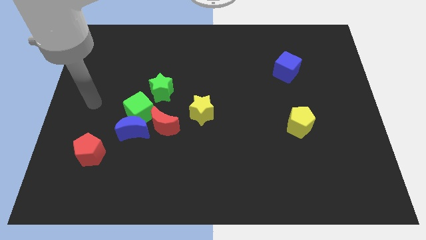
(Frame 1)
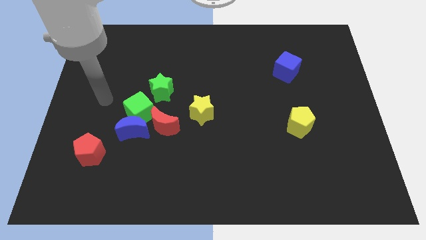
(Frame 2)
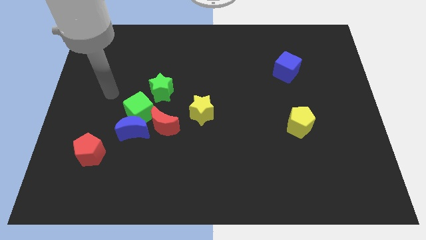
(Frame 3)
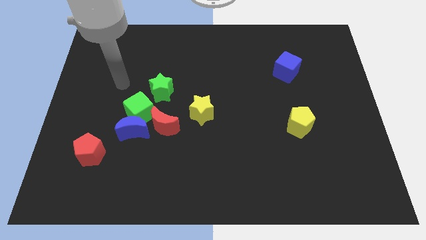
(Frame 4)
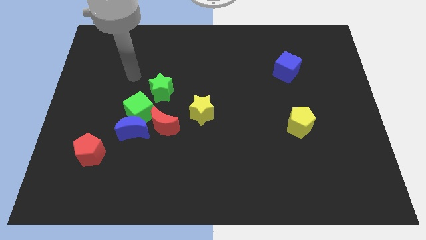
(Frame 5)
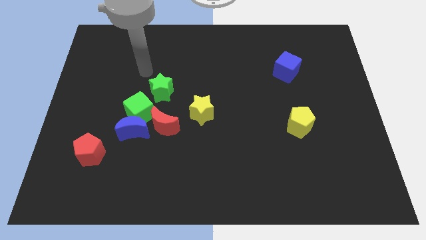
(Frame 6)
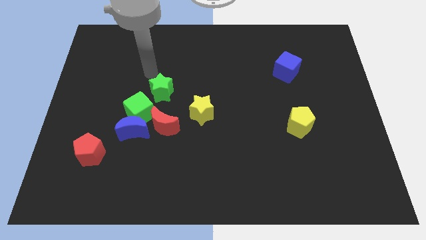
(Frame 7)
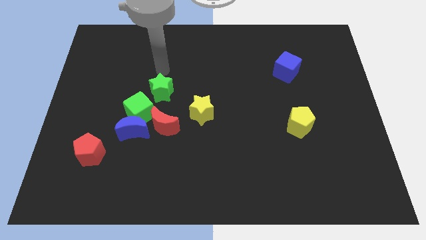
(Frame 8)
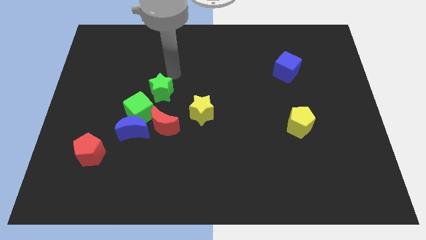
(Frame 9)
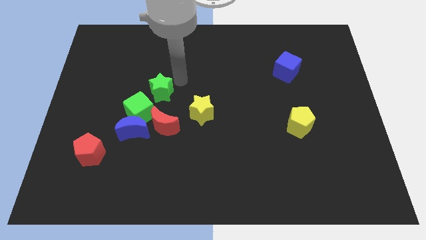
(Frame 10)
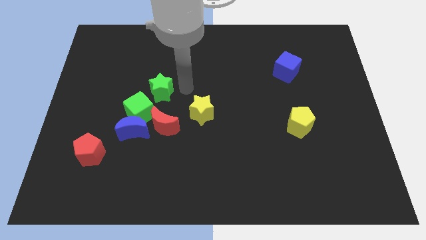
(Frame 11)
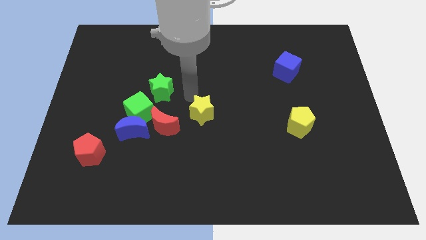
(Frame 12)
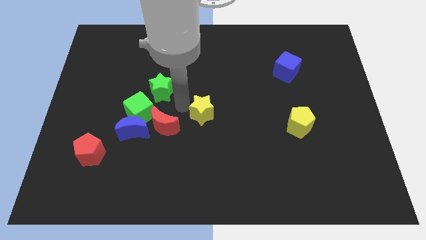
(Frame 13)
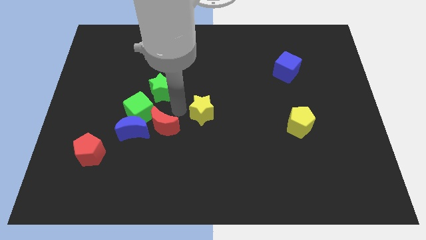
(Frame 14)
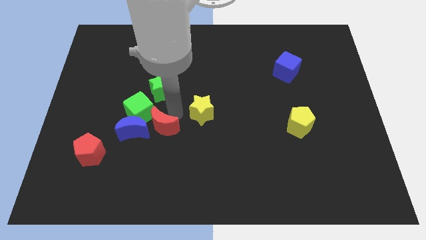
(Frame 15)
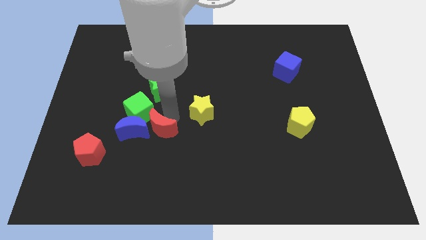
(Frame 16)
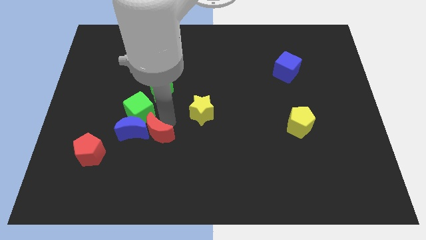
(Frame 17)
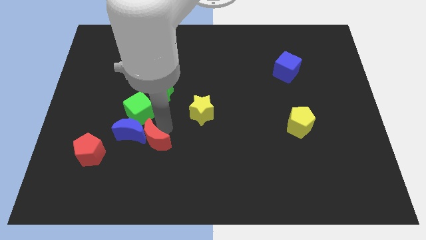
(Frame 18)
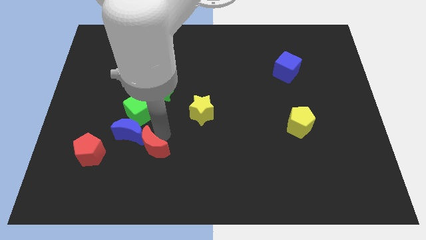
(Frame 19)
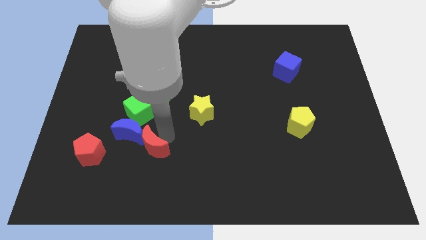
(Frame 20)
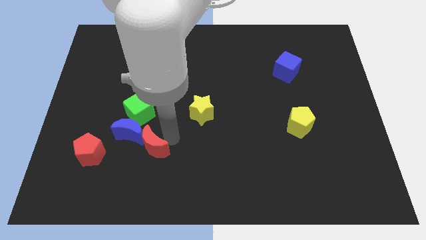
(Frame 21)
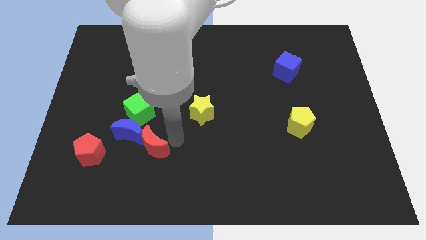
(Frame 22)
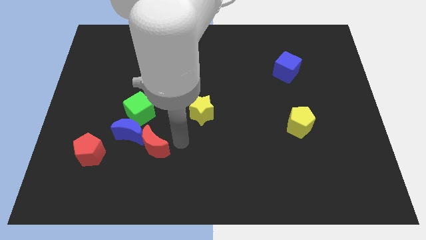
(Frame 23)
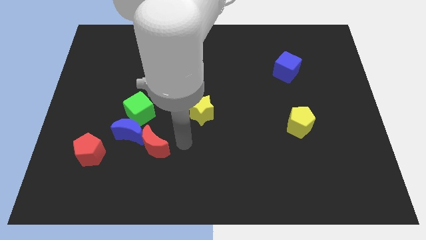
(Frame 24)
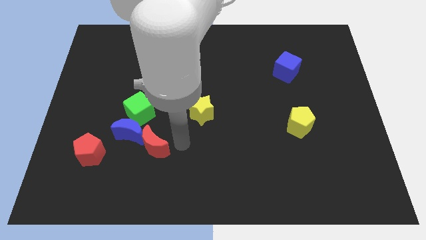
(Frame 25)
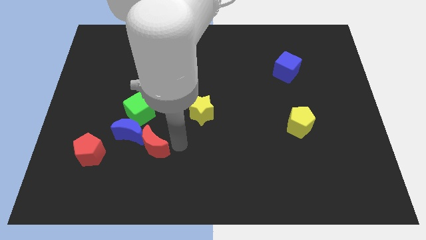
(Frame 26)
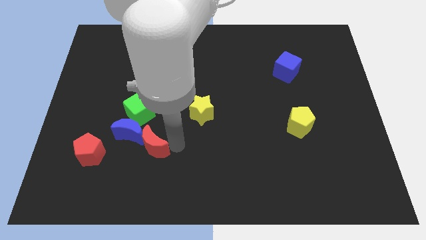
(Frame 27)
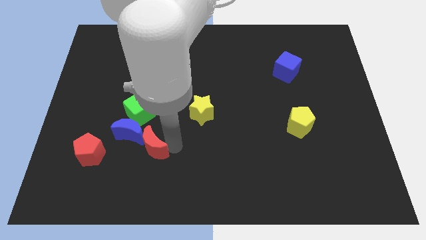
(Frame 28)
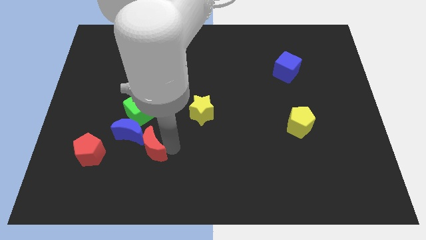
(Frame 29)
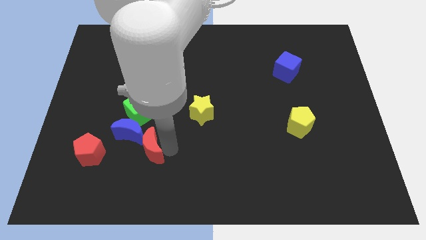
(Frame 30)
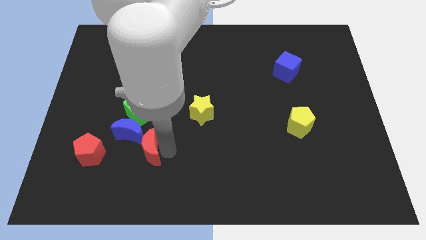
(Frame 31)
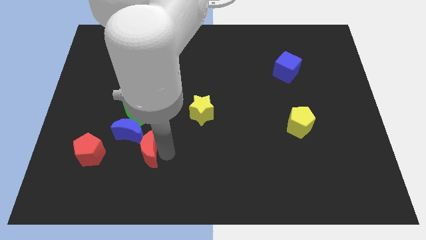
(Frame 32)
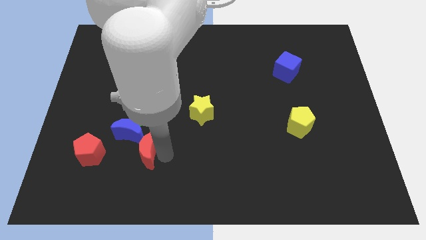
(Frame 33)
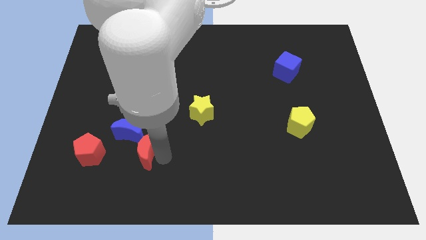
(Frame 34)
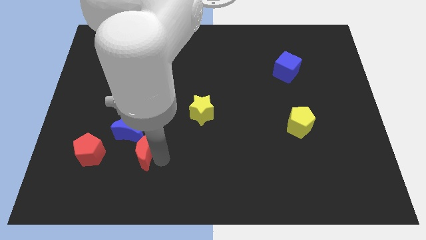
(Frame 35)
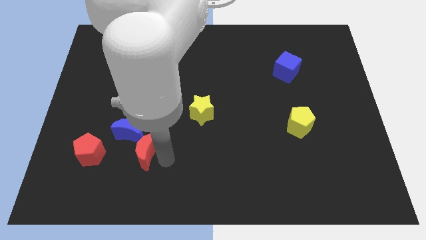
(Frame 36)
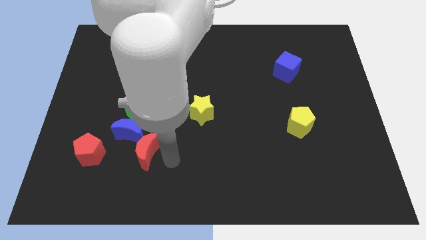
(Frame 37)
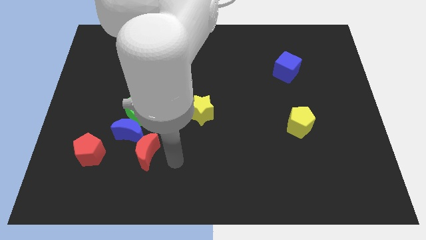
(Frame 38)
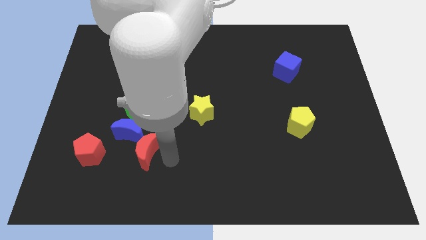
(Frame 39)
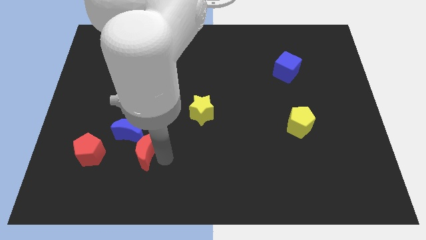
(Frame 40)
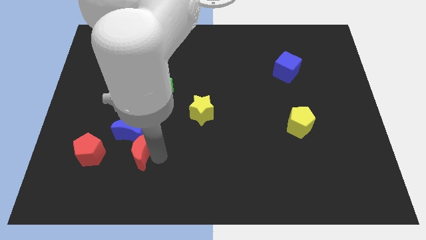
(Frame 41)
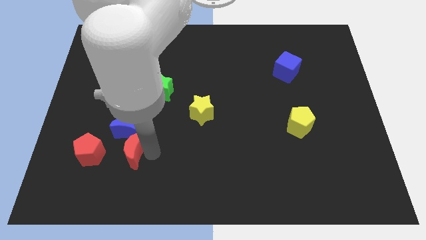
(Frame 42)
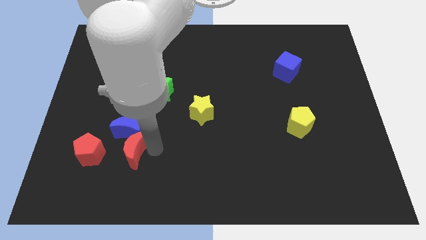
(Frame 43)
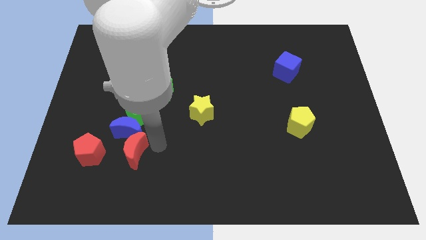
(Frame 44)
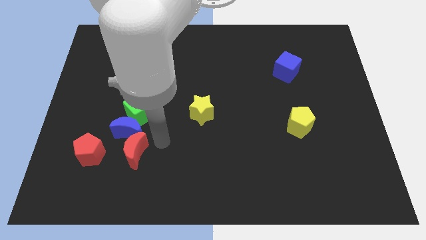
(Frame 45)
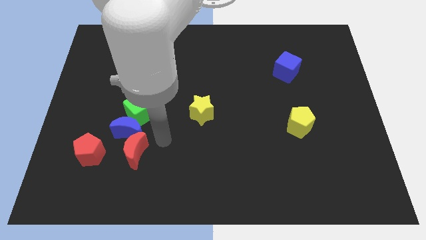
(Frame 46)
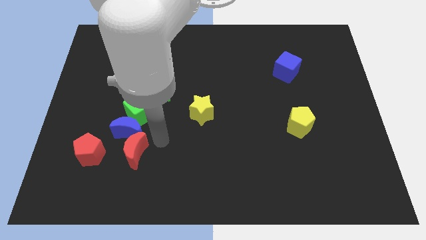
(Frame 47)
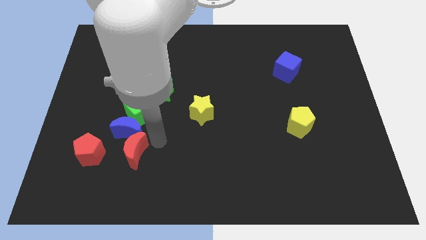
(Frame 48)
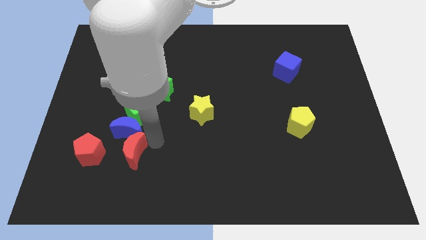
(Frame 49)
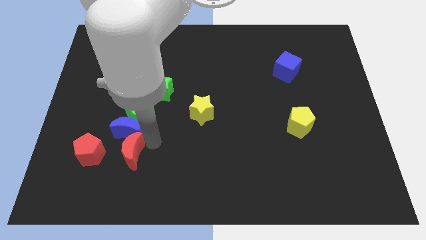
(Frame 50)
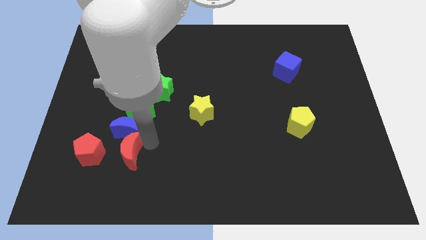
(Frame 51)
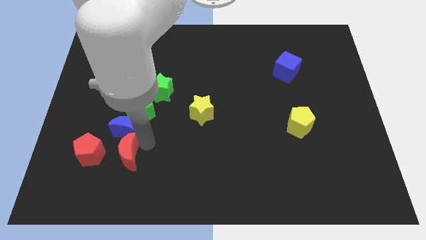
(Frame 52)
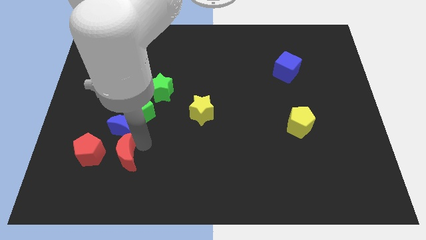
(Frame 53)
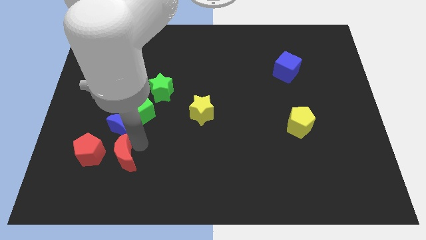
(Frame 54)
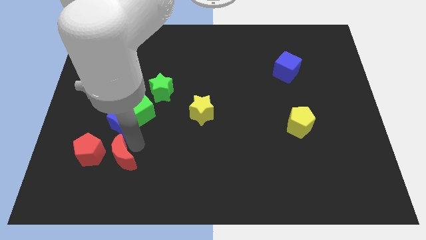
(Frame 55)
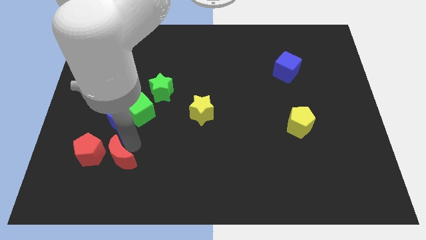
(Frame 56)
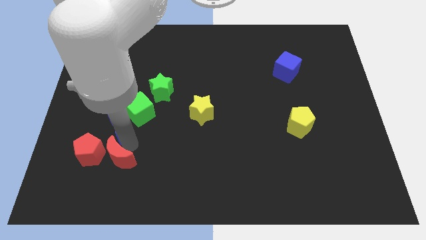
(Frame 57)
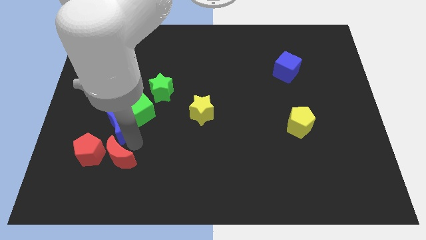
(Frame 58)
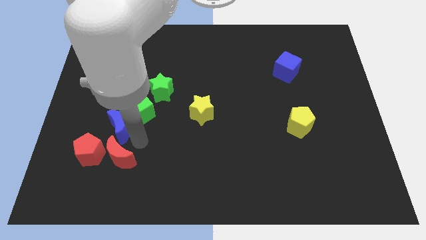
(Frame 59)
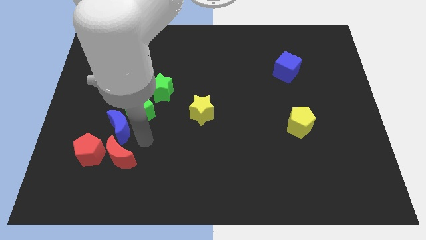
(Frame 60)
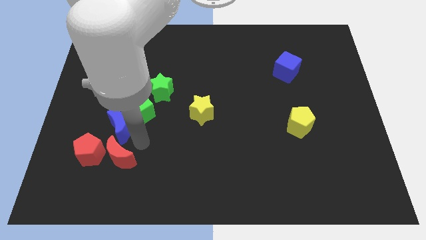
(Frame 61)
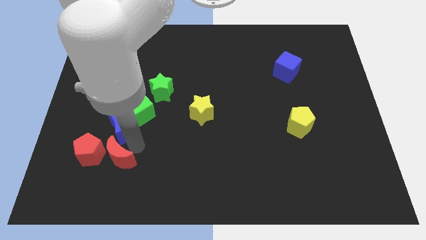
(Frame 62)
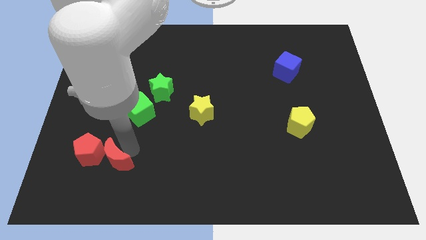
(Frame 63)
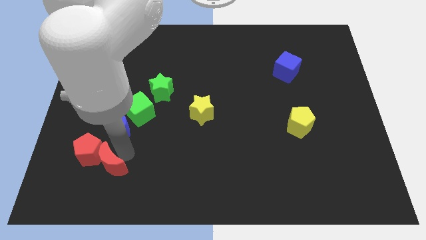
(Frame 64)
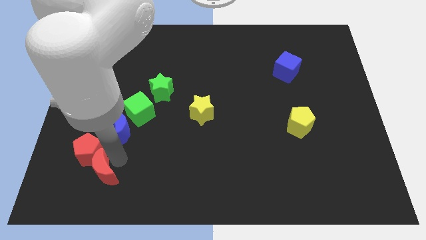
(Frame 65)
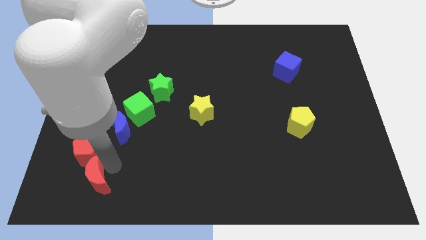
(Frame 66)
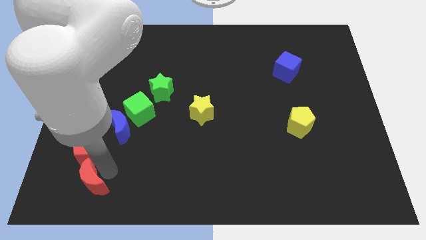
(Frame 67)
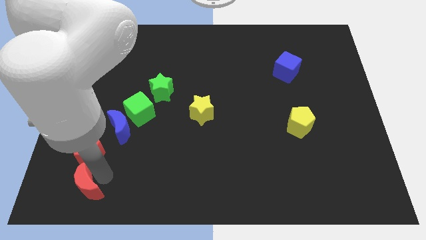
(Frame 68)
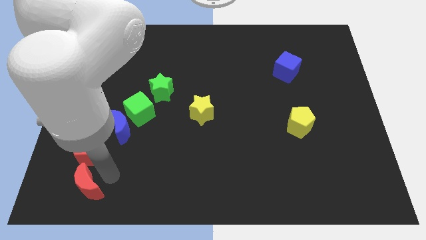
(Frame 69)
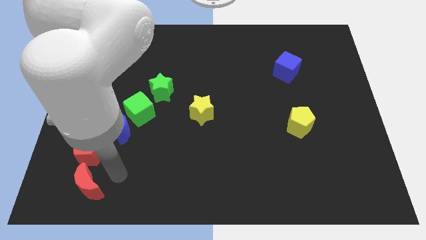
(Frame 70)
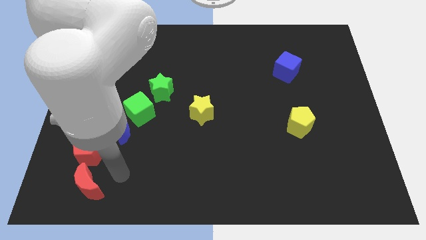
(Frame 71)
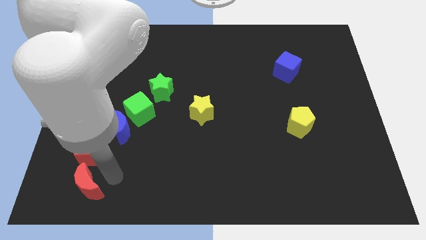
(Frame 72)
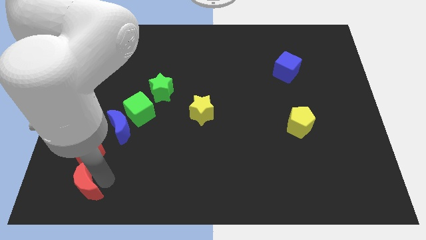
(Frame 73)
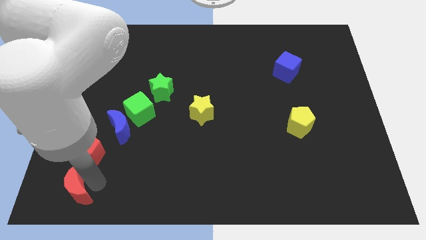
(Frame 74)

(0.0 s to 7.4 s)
put the red moon to the bottom left corner
